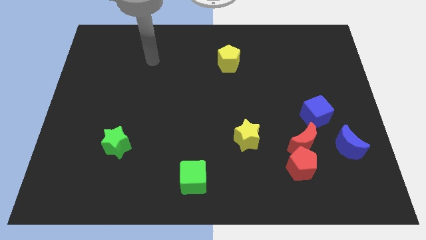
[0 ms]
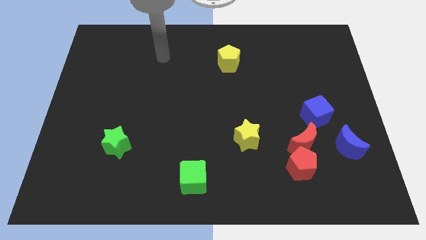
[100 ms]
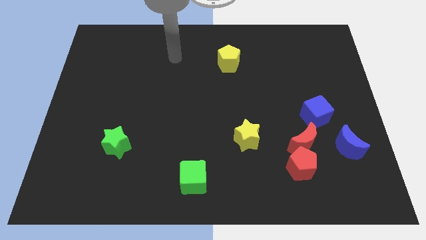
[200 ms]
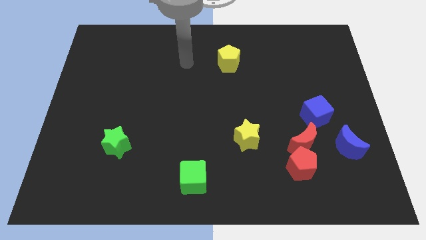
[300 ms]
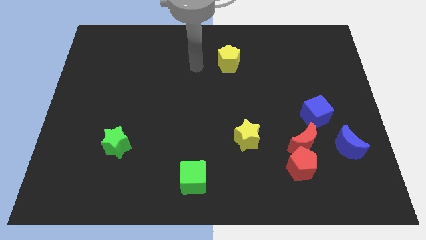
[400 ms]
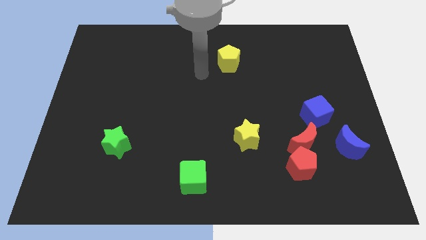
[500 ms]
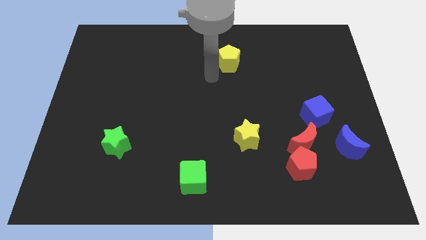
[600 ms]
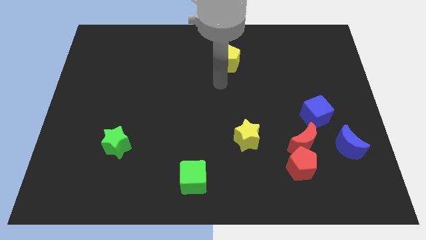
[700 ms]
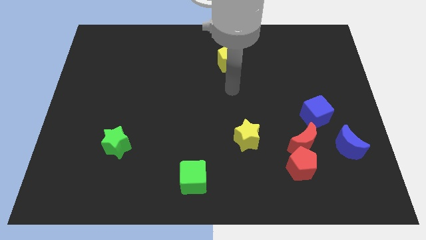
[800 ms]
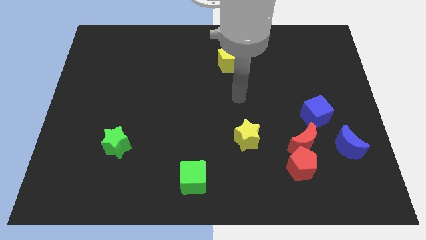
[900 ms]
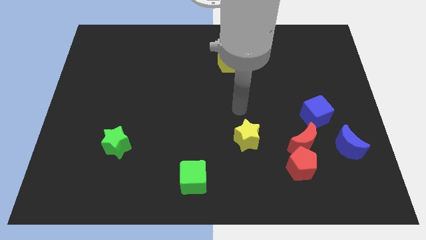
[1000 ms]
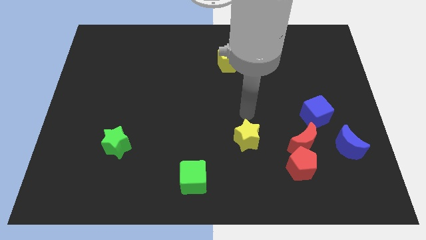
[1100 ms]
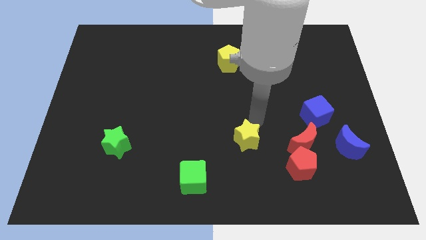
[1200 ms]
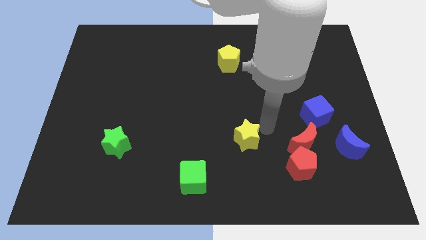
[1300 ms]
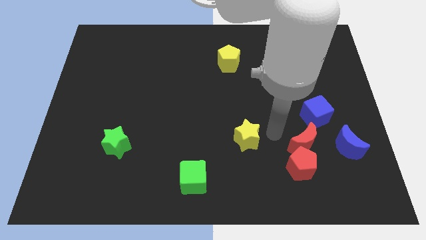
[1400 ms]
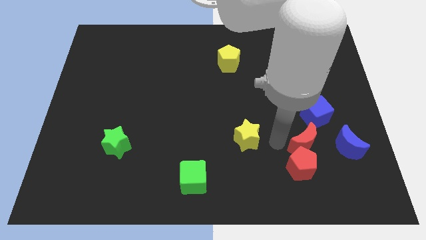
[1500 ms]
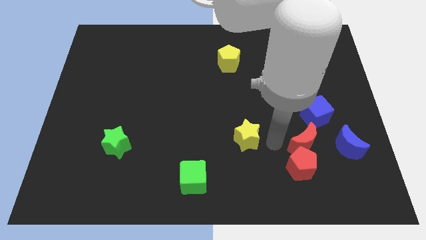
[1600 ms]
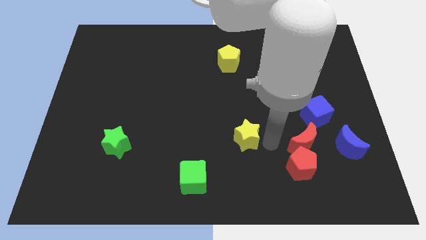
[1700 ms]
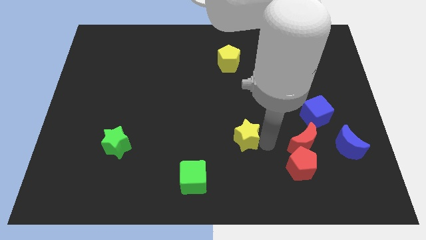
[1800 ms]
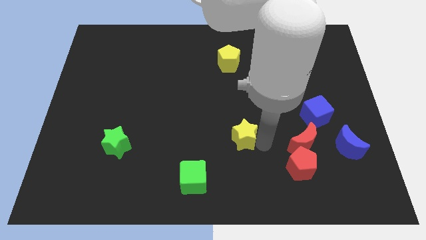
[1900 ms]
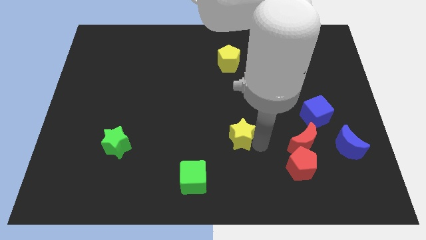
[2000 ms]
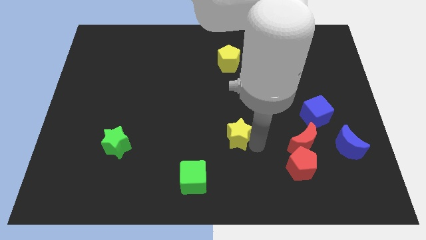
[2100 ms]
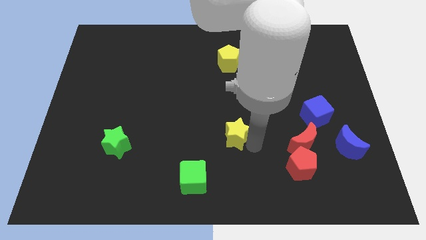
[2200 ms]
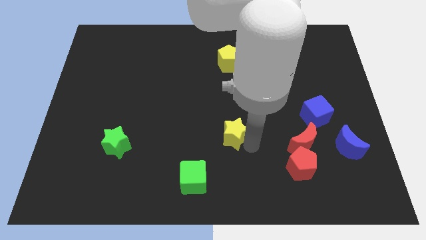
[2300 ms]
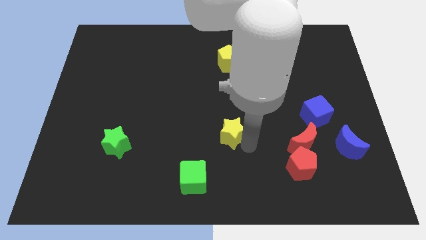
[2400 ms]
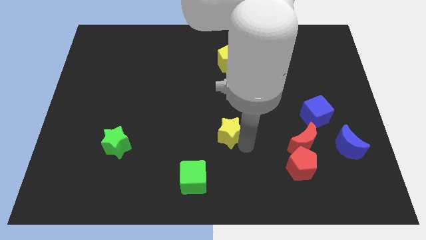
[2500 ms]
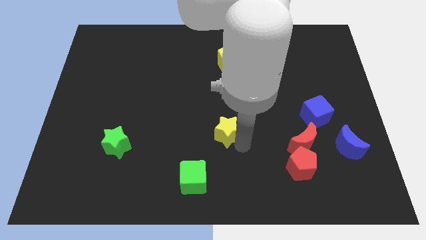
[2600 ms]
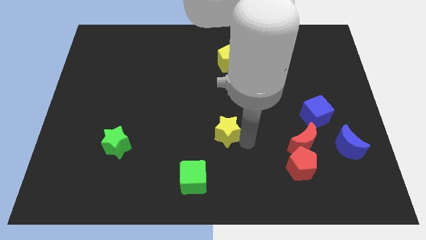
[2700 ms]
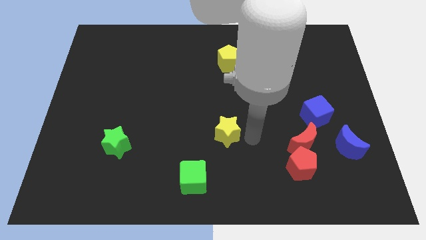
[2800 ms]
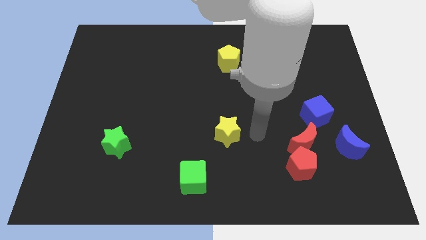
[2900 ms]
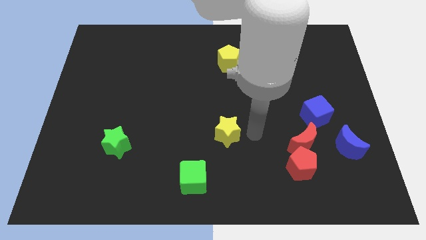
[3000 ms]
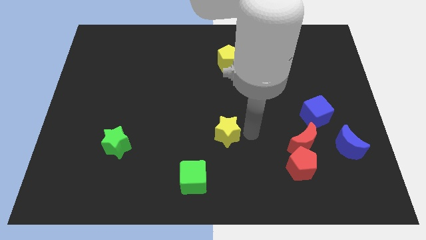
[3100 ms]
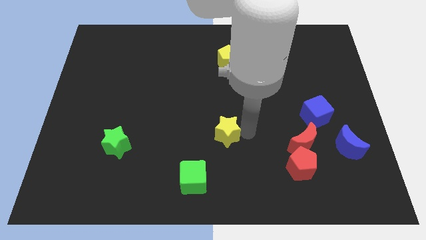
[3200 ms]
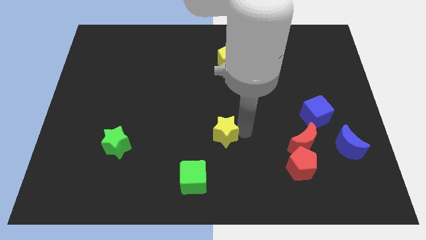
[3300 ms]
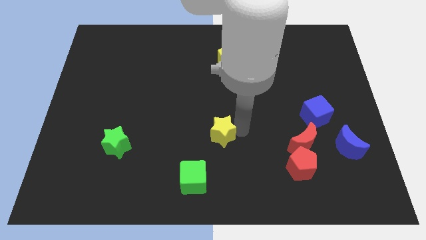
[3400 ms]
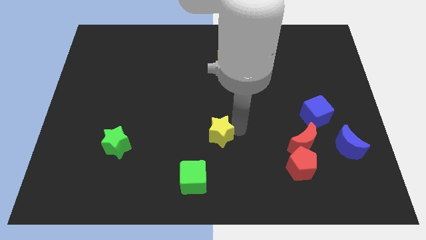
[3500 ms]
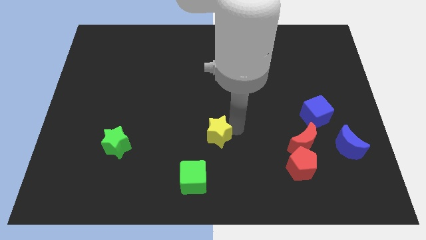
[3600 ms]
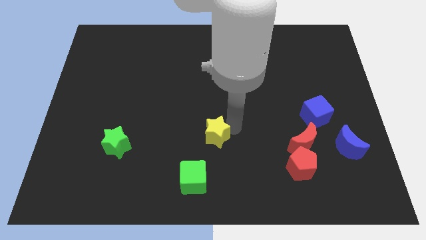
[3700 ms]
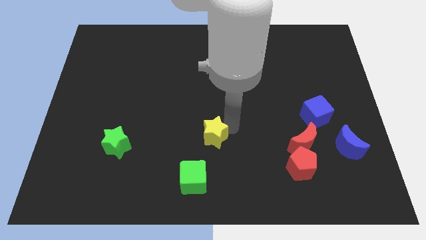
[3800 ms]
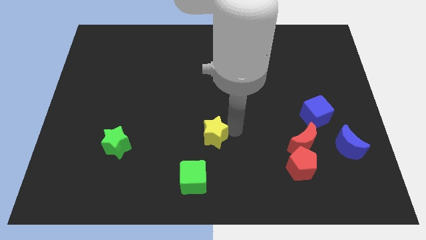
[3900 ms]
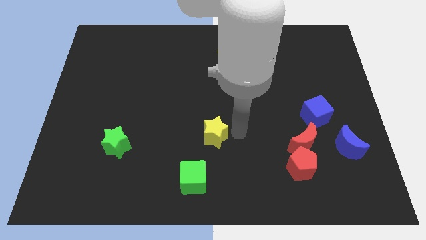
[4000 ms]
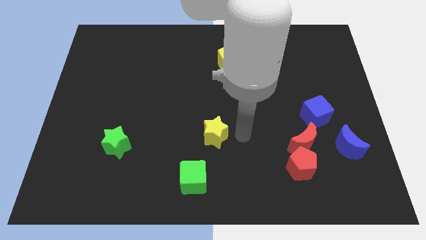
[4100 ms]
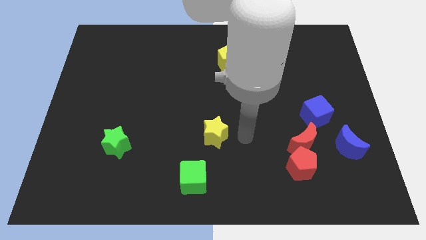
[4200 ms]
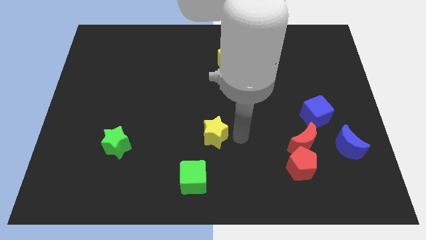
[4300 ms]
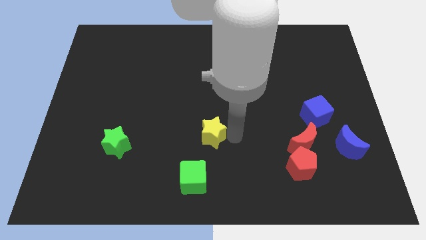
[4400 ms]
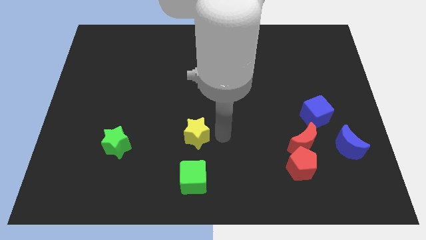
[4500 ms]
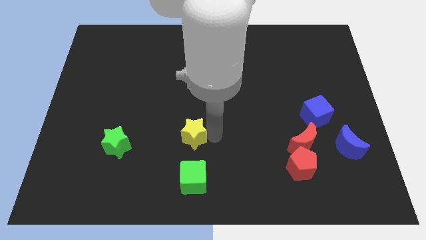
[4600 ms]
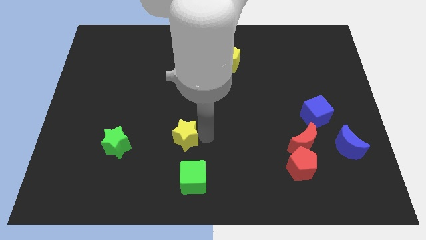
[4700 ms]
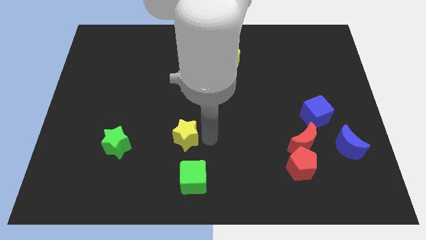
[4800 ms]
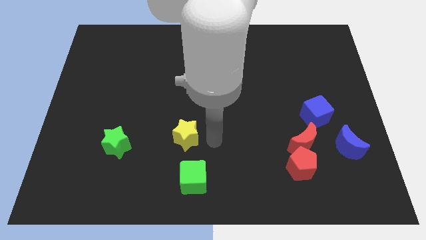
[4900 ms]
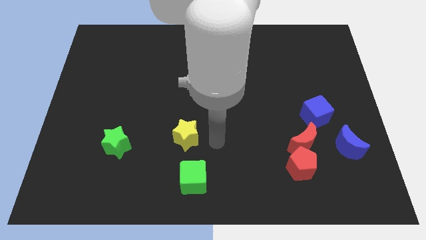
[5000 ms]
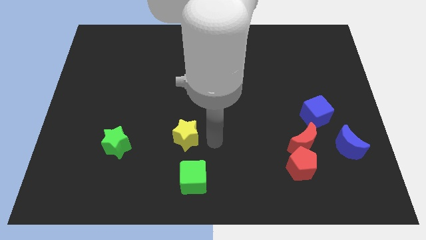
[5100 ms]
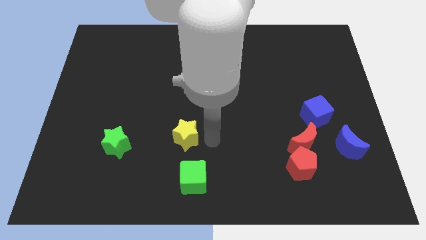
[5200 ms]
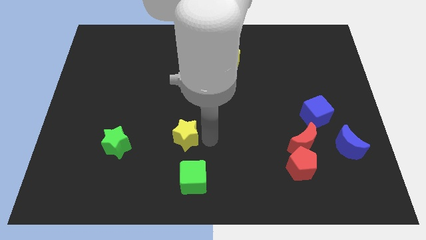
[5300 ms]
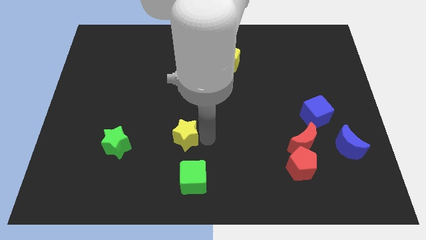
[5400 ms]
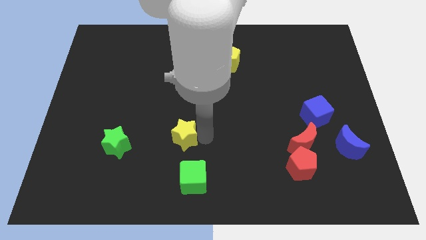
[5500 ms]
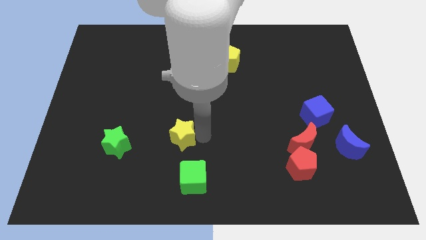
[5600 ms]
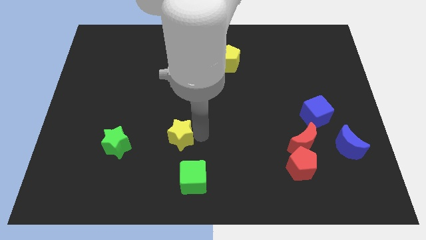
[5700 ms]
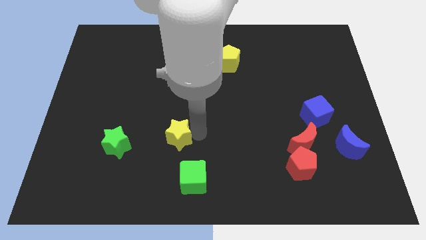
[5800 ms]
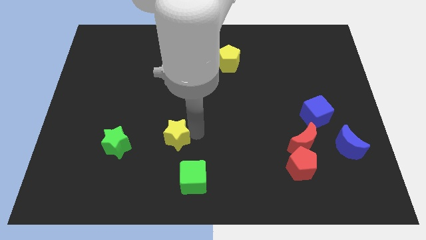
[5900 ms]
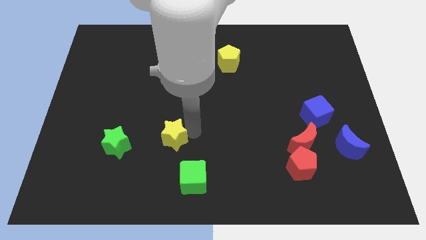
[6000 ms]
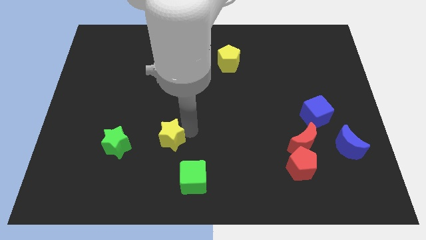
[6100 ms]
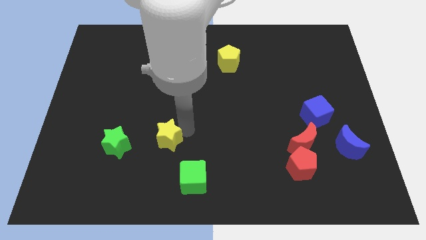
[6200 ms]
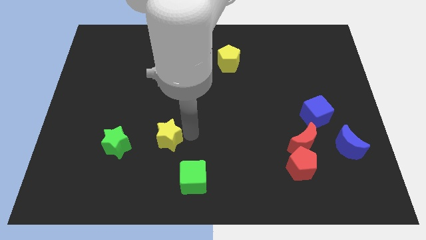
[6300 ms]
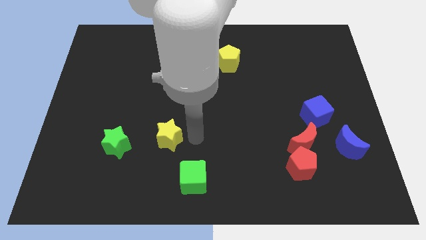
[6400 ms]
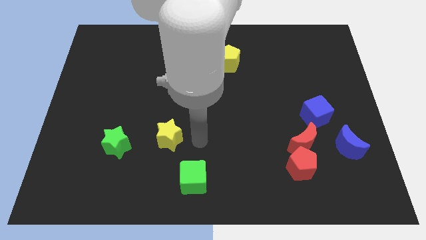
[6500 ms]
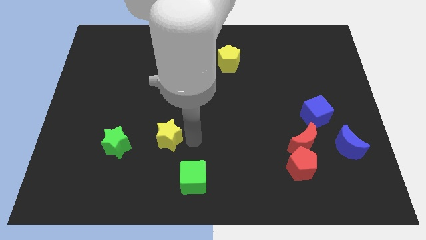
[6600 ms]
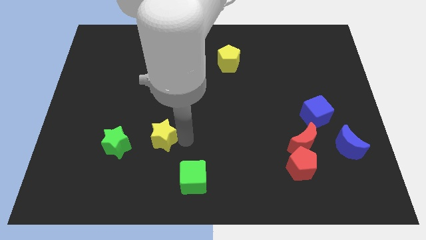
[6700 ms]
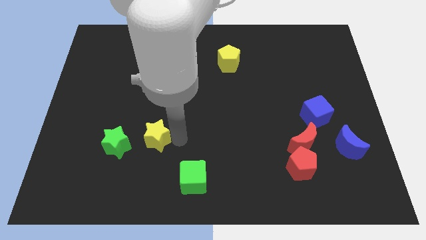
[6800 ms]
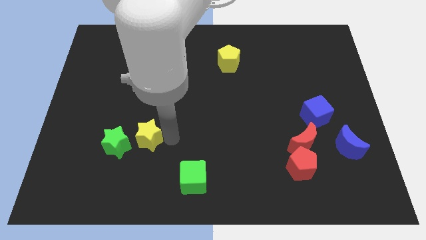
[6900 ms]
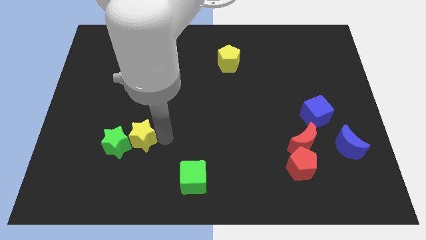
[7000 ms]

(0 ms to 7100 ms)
put the yellow star close to the green star

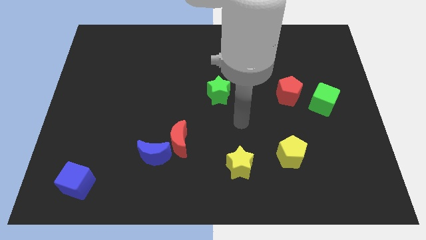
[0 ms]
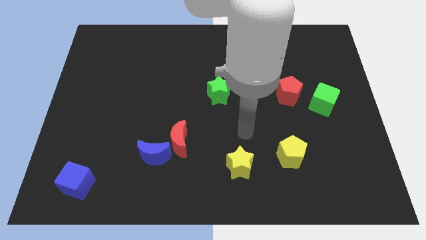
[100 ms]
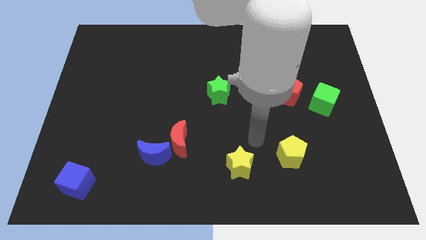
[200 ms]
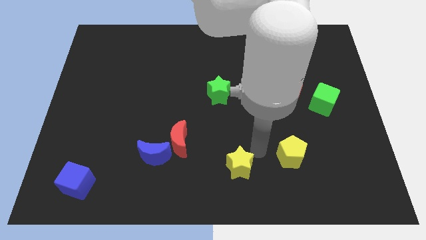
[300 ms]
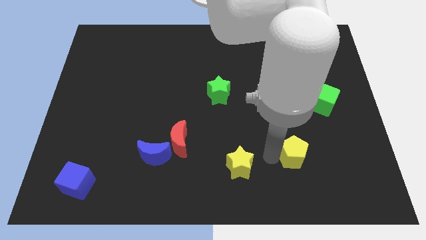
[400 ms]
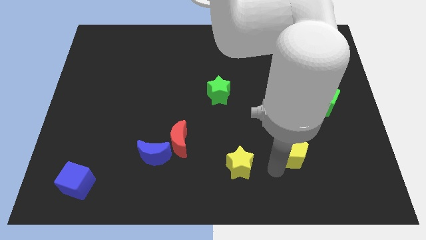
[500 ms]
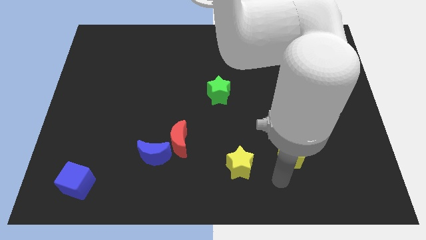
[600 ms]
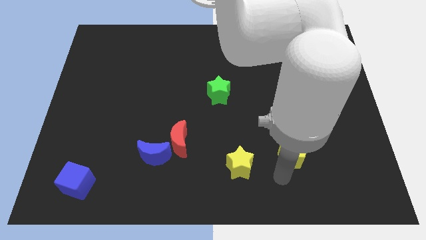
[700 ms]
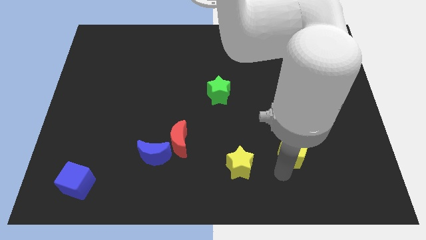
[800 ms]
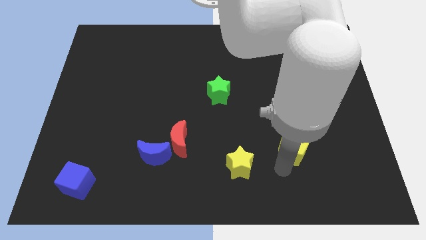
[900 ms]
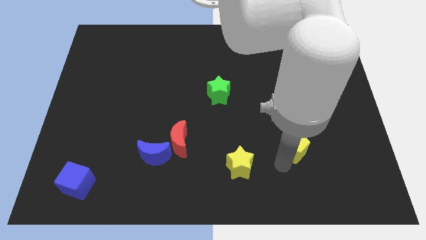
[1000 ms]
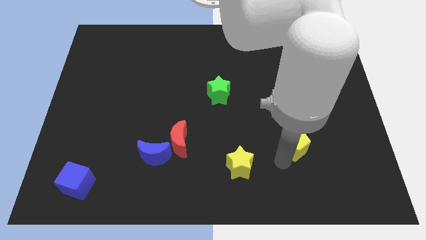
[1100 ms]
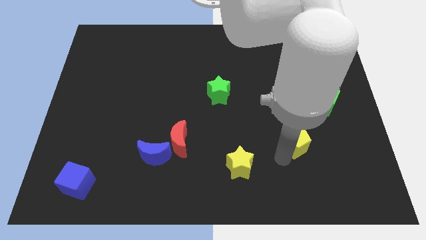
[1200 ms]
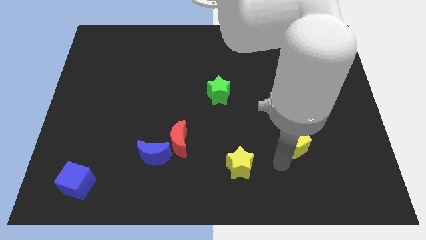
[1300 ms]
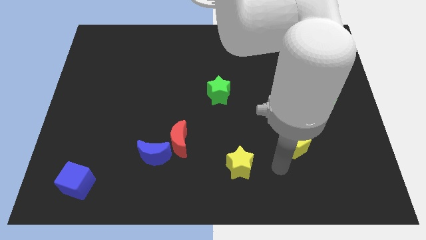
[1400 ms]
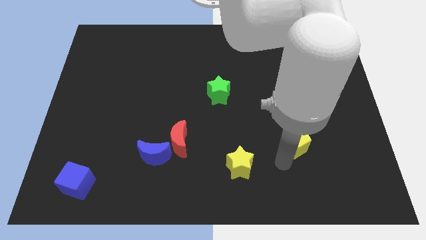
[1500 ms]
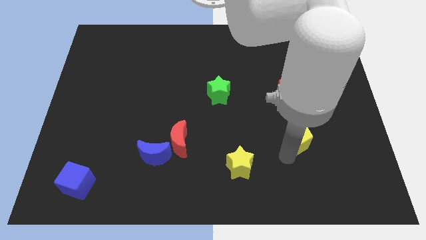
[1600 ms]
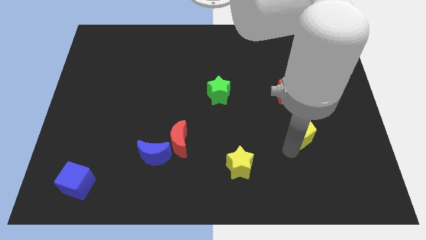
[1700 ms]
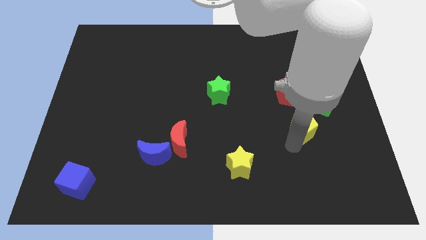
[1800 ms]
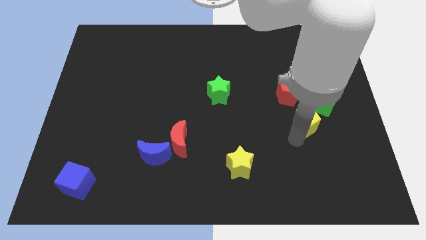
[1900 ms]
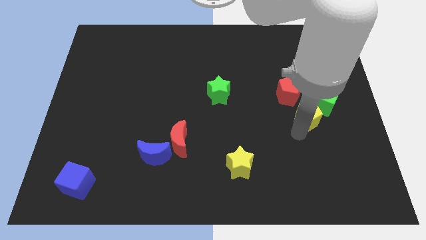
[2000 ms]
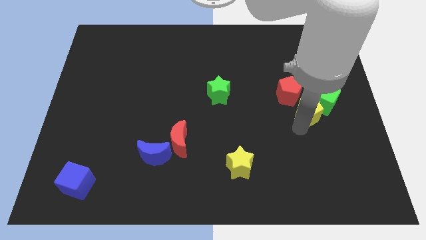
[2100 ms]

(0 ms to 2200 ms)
put the yellow pentagon towards the green cube
